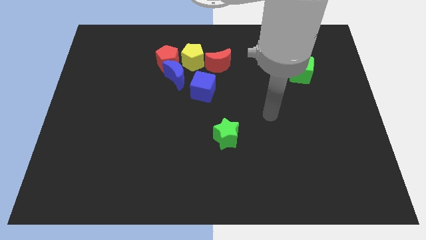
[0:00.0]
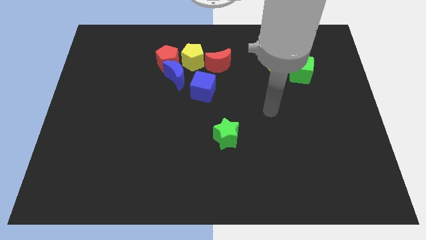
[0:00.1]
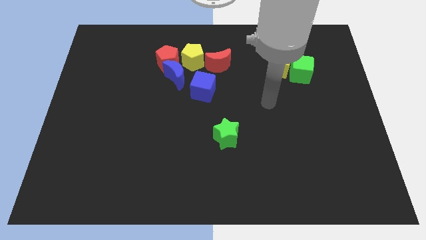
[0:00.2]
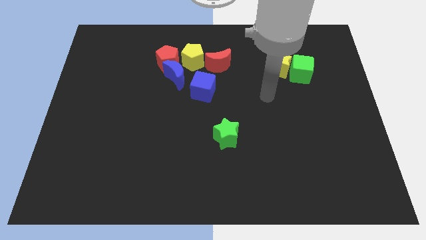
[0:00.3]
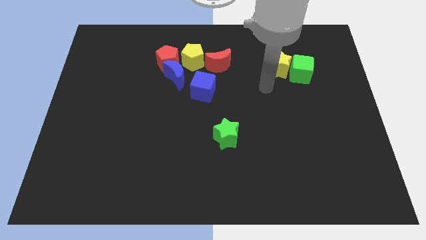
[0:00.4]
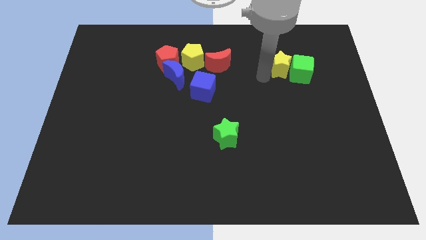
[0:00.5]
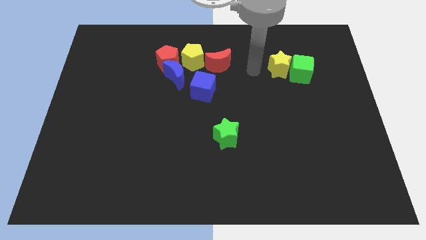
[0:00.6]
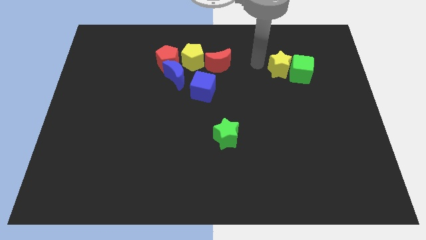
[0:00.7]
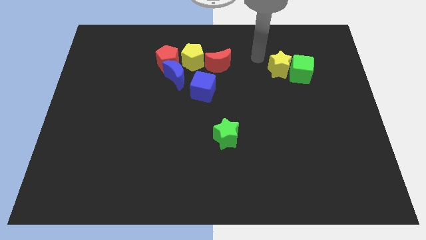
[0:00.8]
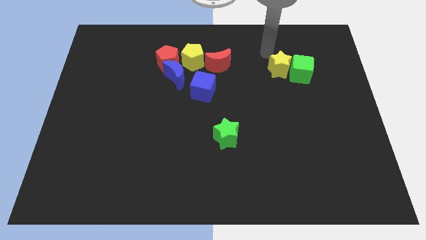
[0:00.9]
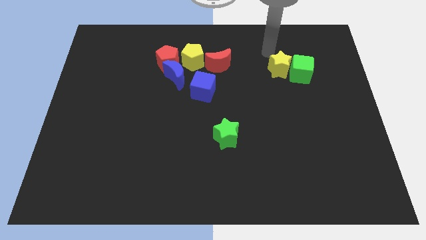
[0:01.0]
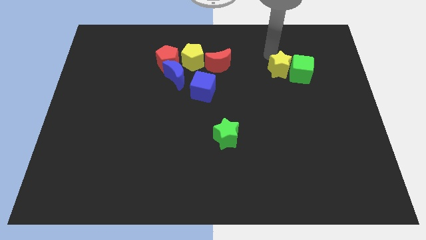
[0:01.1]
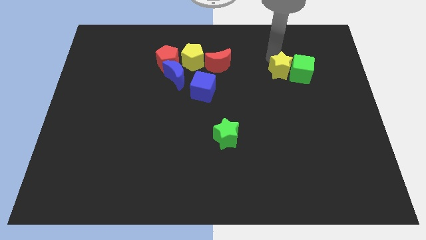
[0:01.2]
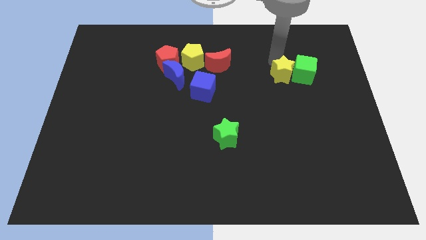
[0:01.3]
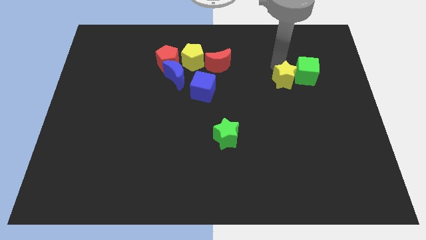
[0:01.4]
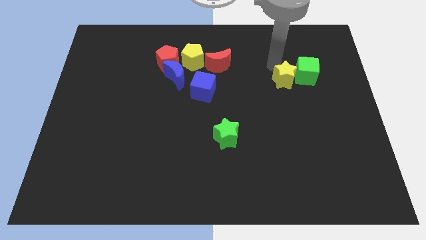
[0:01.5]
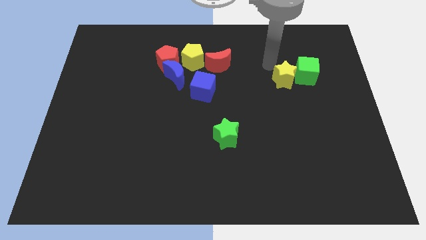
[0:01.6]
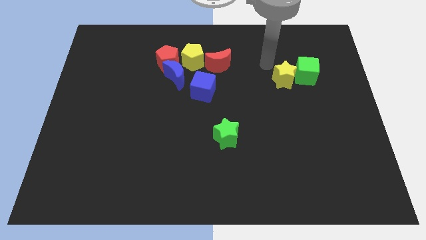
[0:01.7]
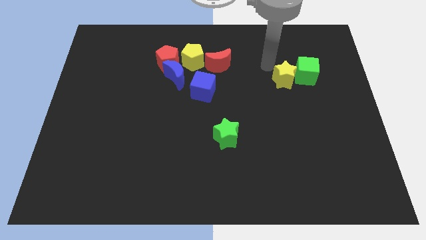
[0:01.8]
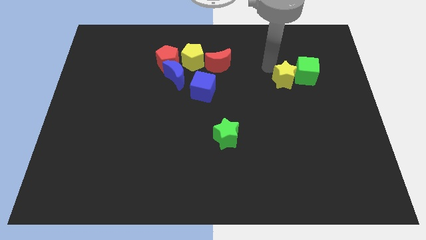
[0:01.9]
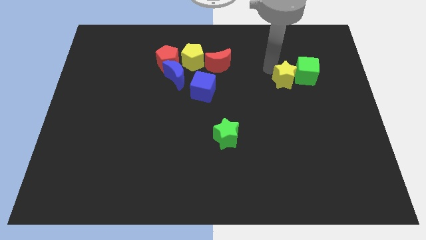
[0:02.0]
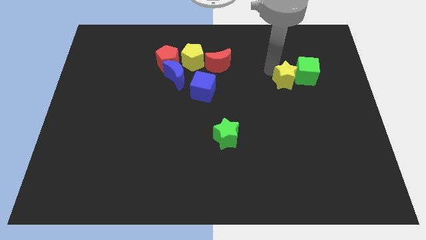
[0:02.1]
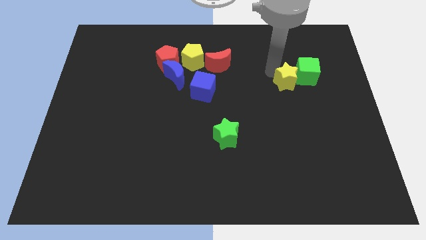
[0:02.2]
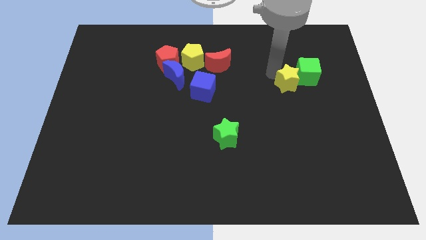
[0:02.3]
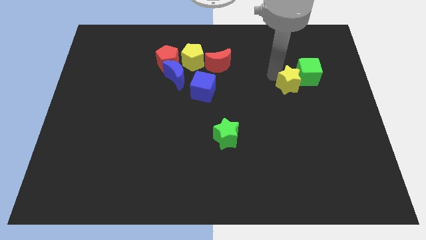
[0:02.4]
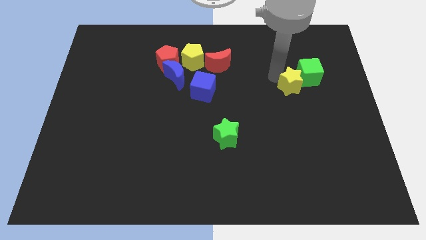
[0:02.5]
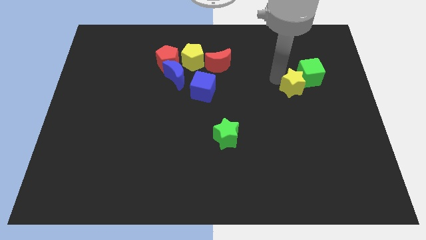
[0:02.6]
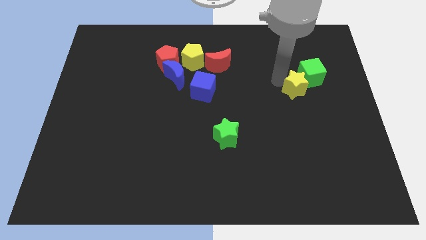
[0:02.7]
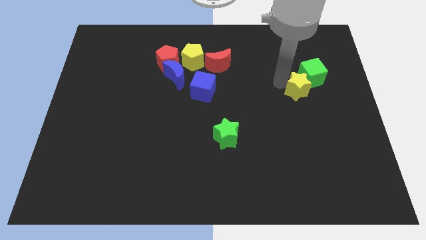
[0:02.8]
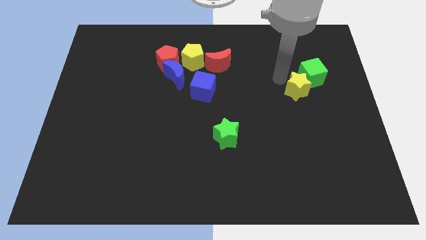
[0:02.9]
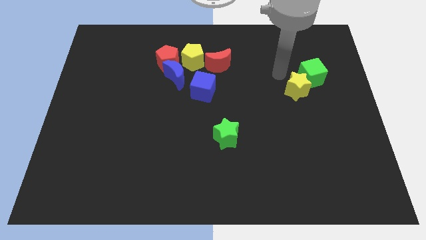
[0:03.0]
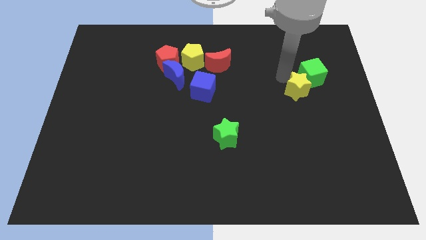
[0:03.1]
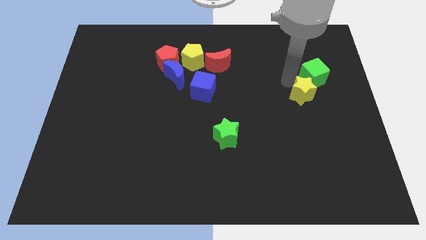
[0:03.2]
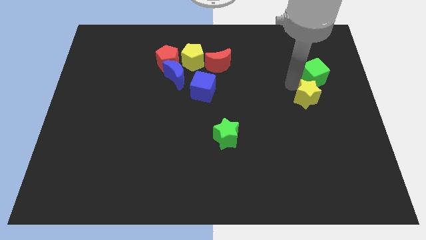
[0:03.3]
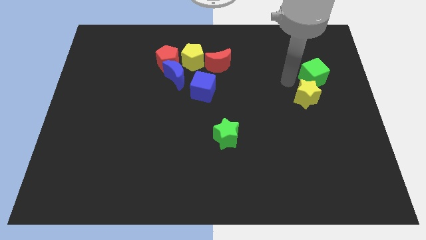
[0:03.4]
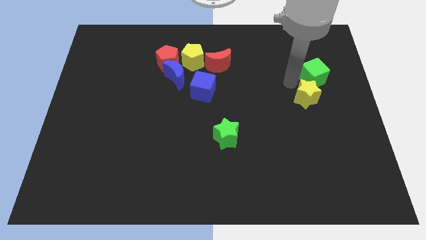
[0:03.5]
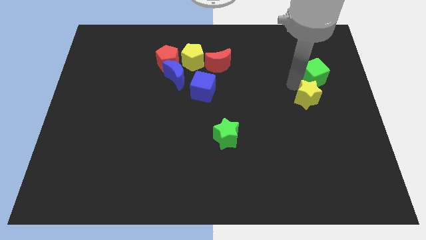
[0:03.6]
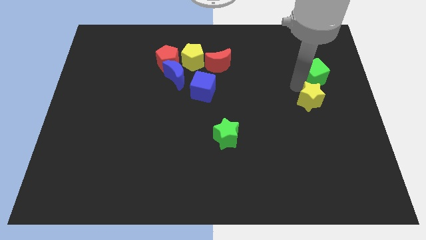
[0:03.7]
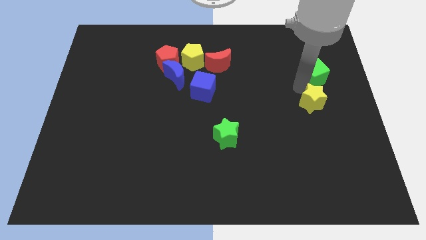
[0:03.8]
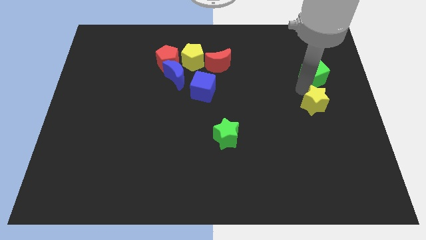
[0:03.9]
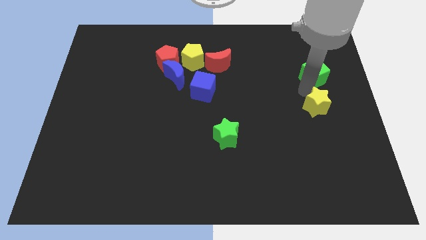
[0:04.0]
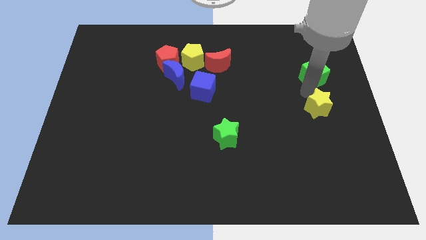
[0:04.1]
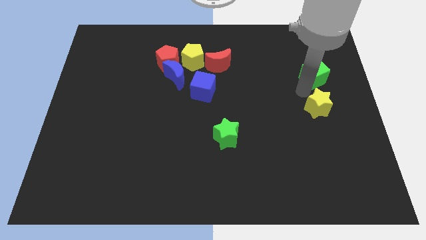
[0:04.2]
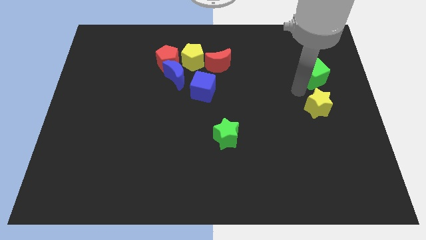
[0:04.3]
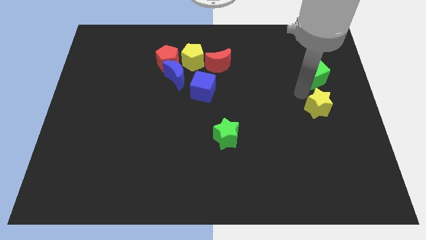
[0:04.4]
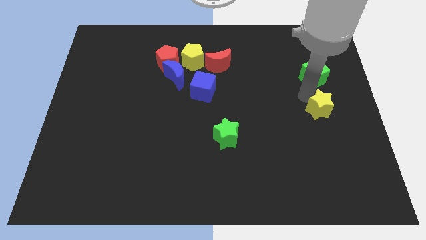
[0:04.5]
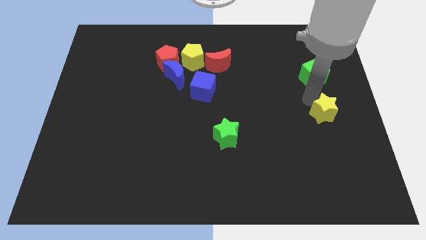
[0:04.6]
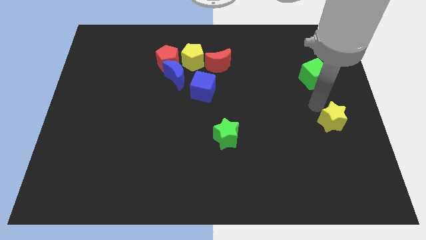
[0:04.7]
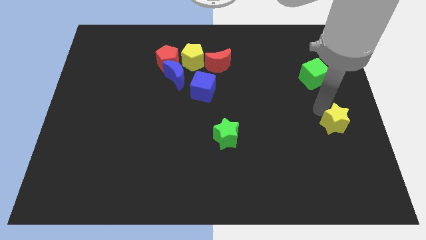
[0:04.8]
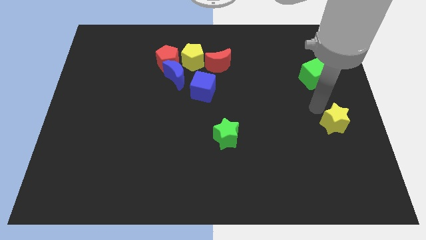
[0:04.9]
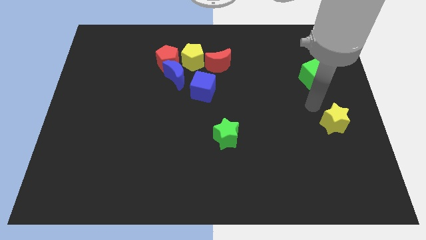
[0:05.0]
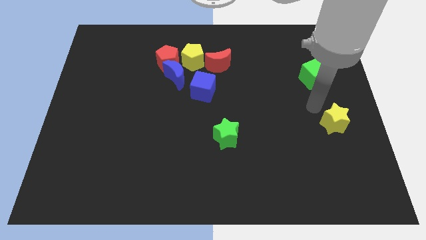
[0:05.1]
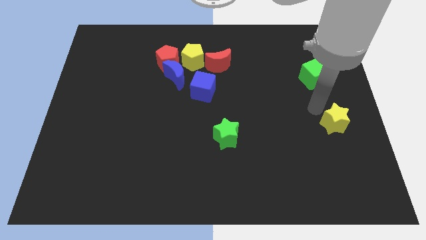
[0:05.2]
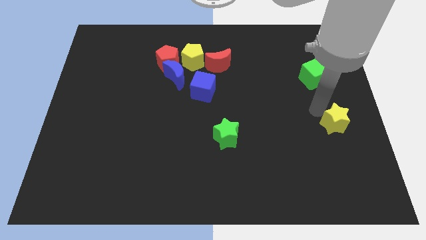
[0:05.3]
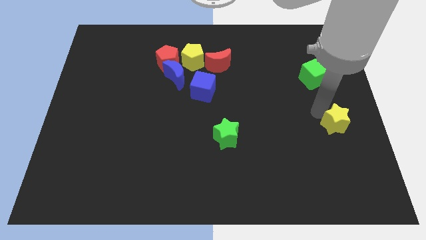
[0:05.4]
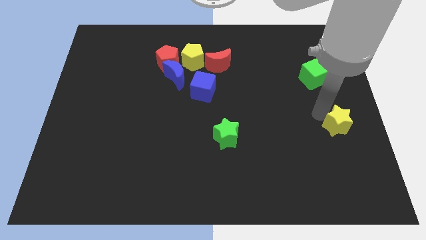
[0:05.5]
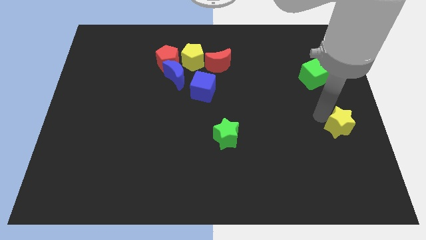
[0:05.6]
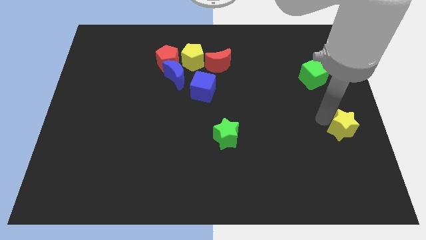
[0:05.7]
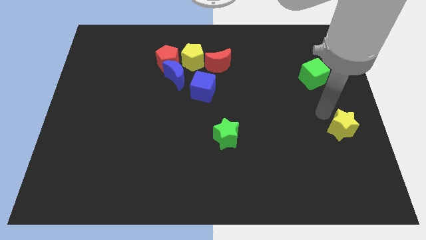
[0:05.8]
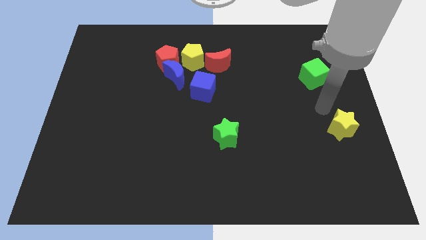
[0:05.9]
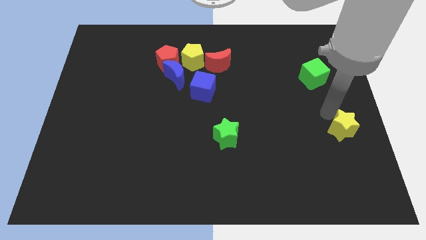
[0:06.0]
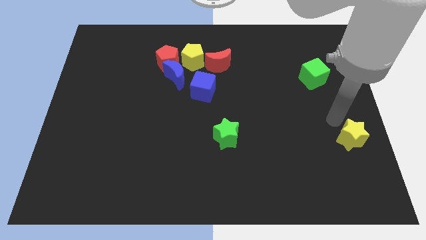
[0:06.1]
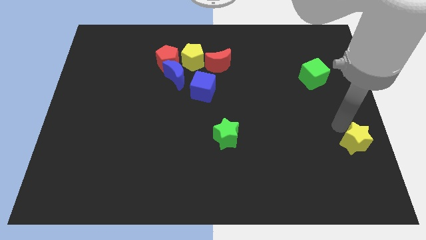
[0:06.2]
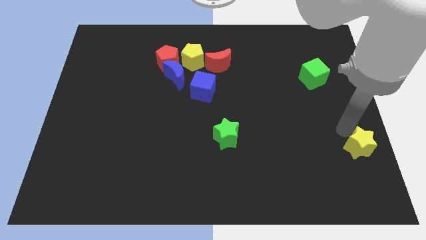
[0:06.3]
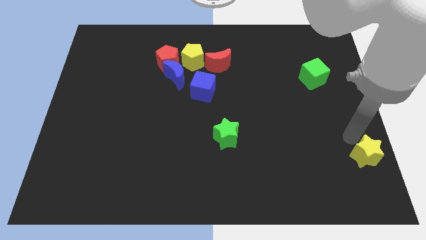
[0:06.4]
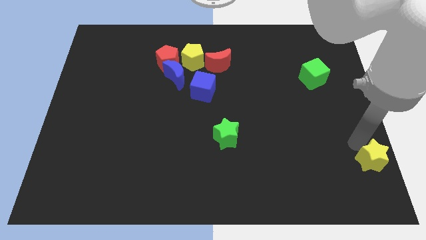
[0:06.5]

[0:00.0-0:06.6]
put the yellow star to the lower right corner
